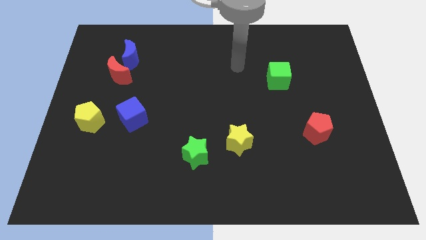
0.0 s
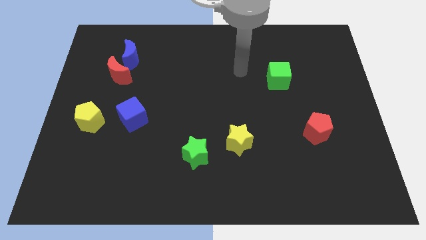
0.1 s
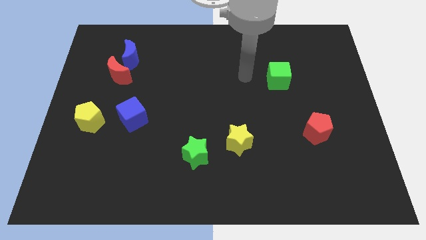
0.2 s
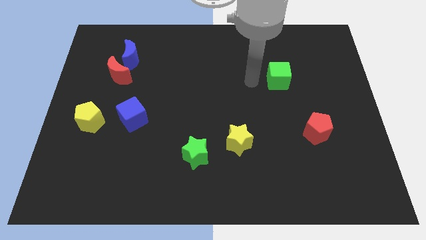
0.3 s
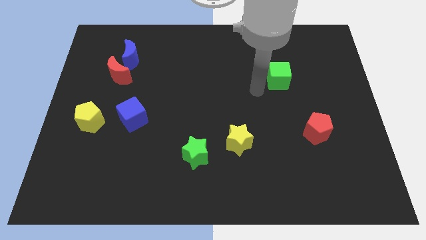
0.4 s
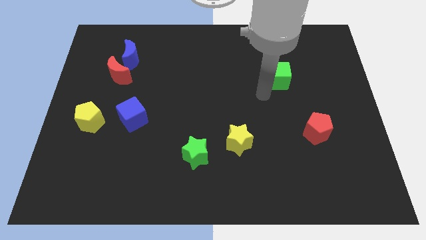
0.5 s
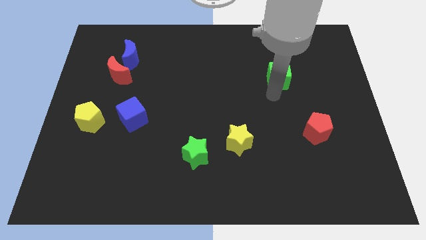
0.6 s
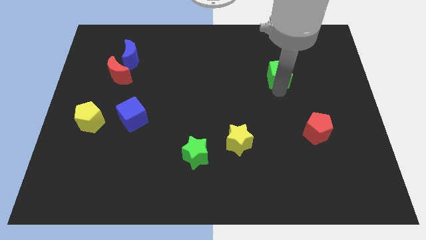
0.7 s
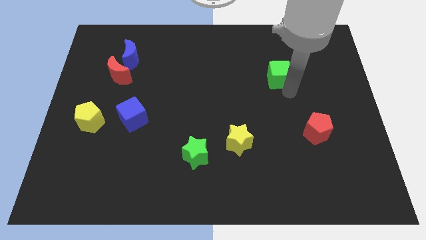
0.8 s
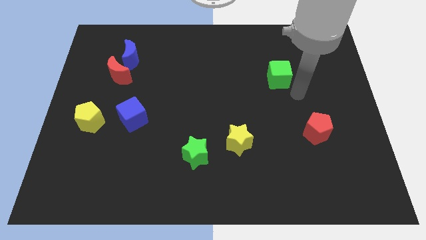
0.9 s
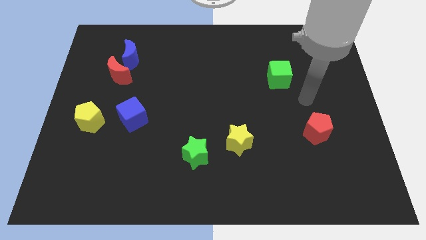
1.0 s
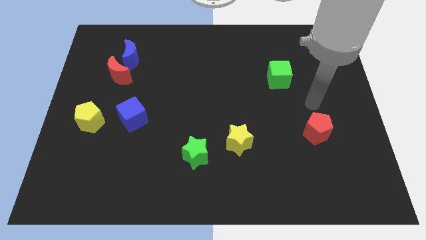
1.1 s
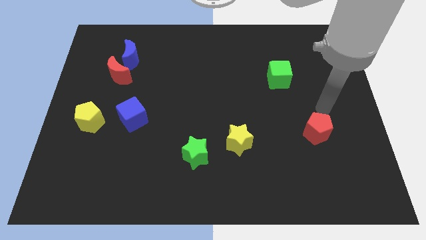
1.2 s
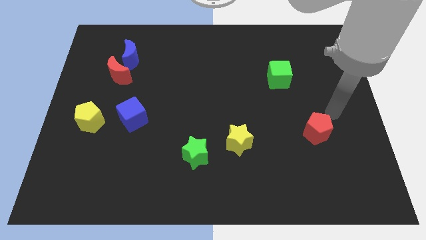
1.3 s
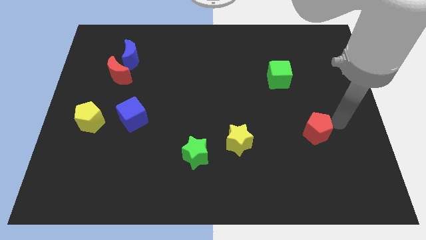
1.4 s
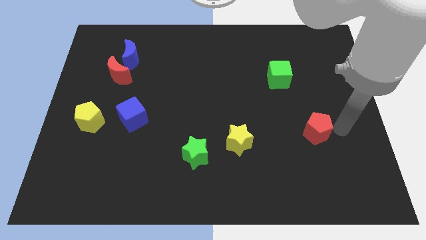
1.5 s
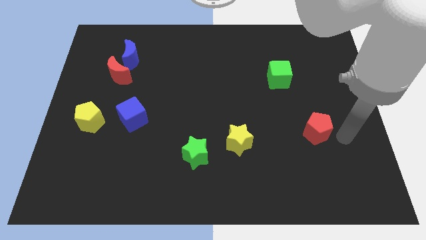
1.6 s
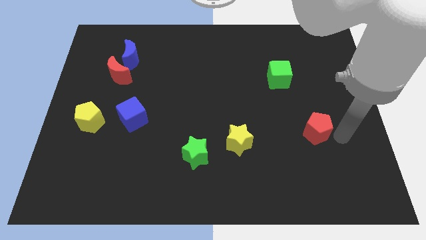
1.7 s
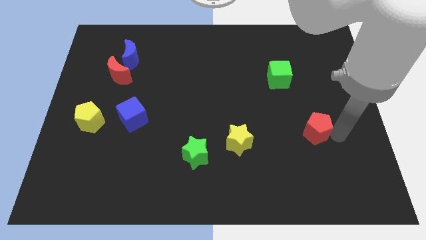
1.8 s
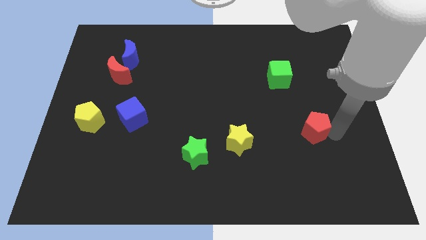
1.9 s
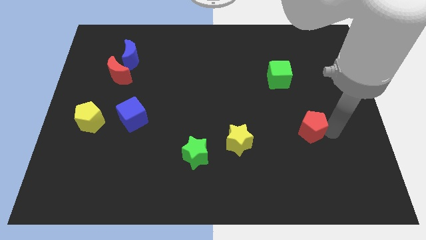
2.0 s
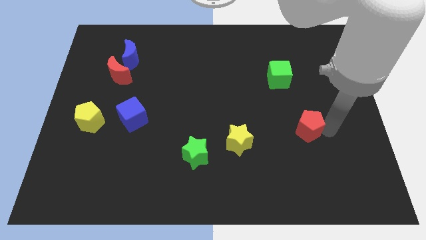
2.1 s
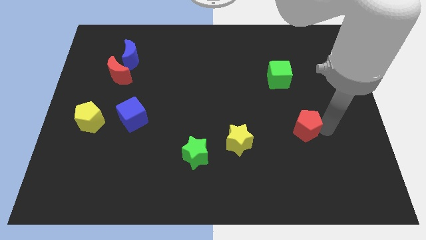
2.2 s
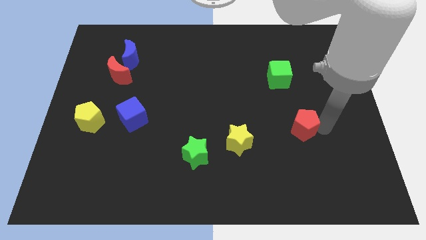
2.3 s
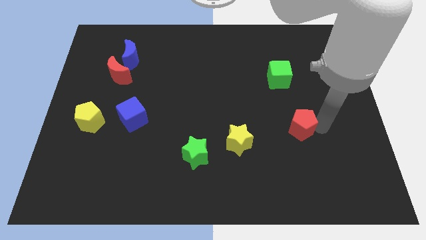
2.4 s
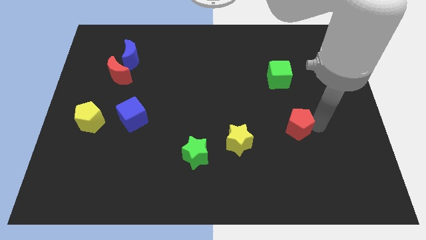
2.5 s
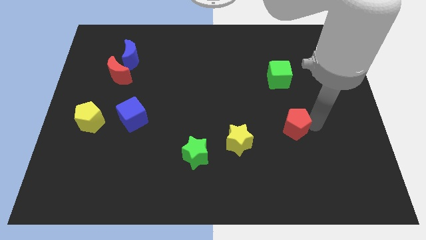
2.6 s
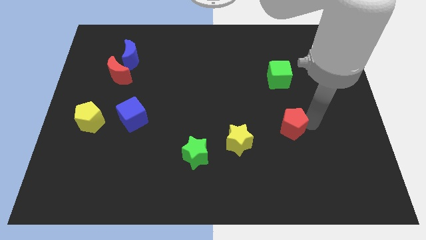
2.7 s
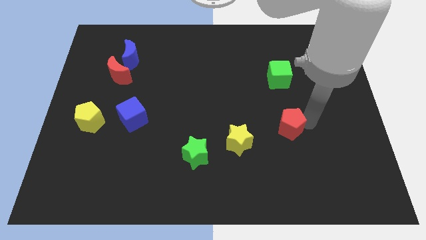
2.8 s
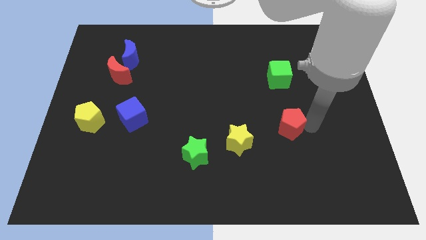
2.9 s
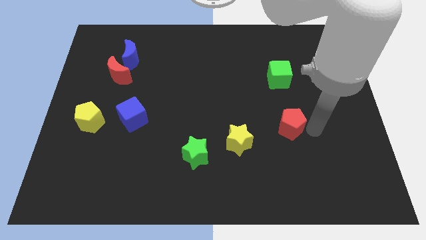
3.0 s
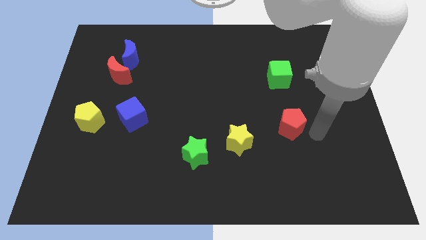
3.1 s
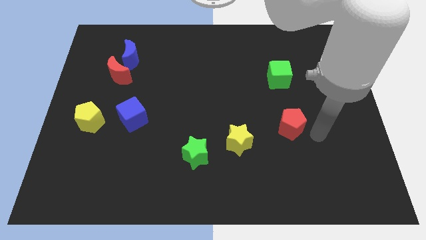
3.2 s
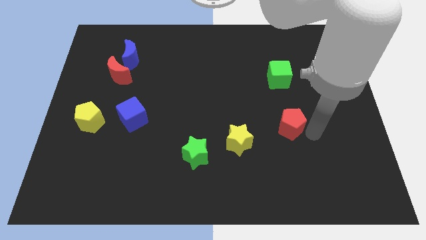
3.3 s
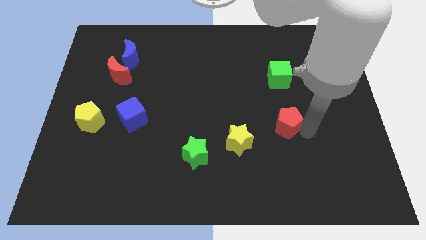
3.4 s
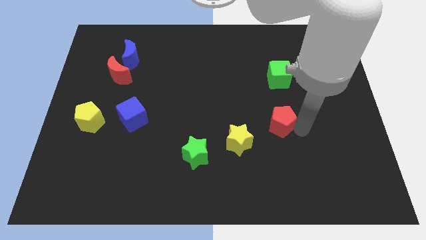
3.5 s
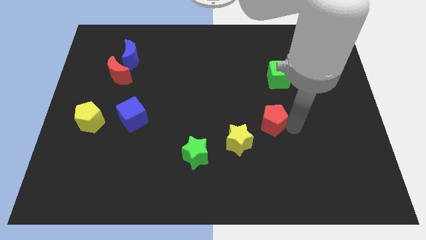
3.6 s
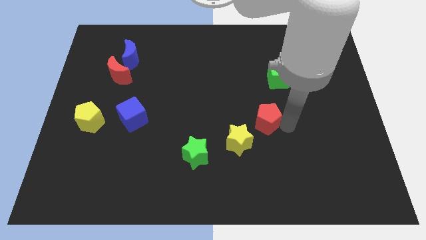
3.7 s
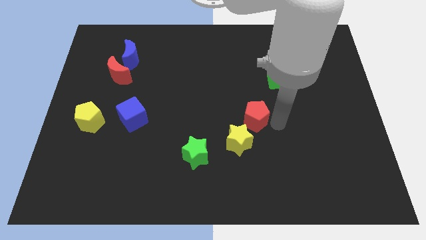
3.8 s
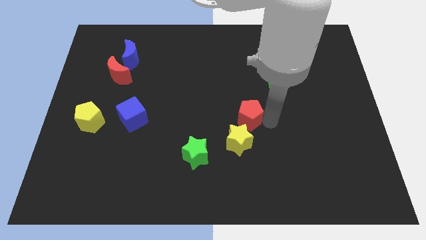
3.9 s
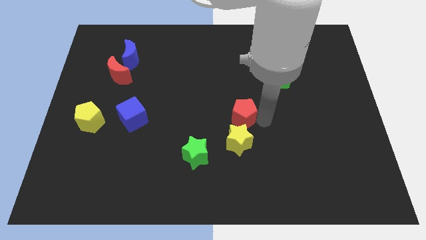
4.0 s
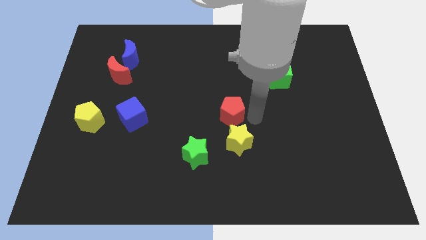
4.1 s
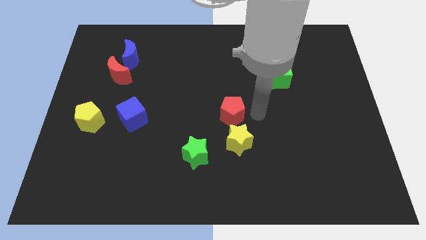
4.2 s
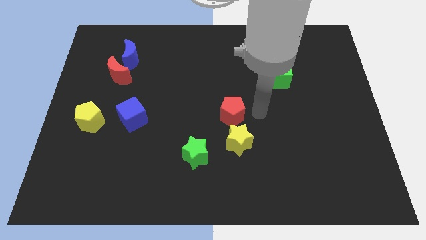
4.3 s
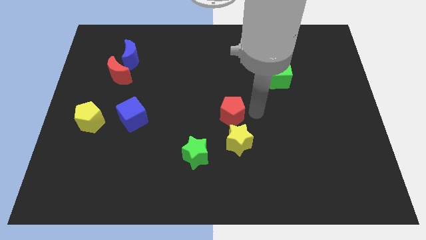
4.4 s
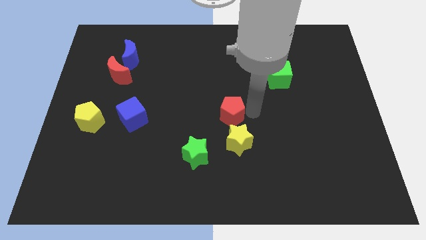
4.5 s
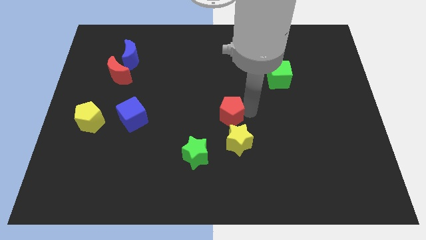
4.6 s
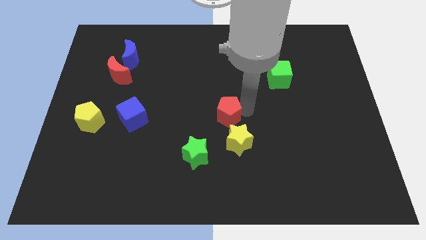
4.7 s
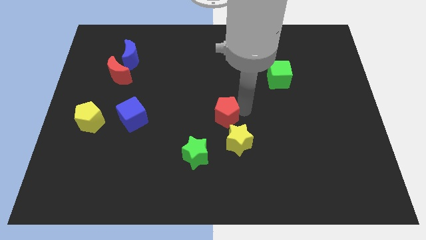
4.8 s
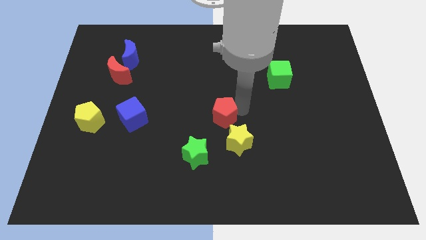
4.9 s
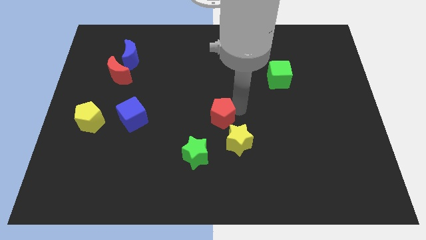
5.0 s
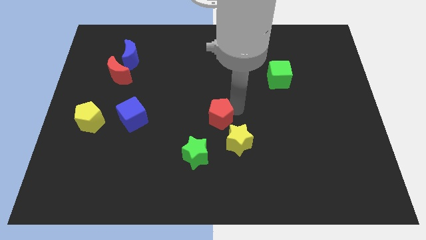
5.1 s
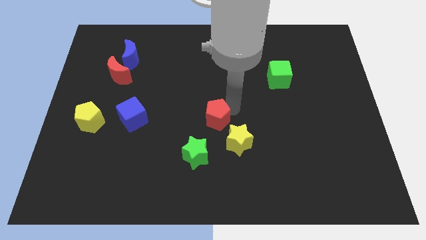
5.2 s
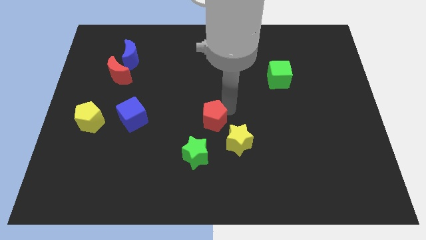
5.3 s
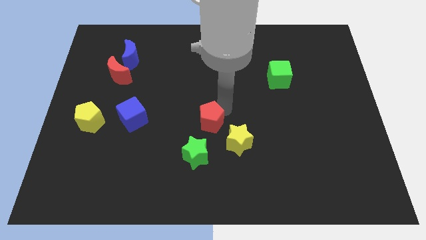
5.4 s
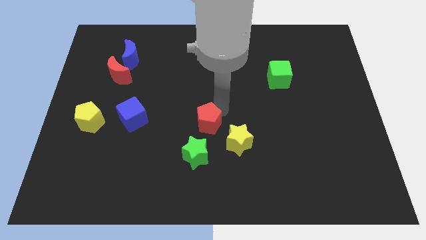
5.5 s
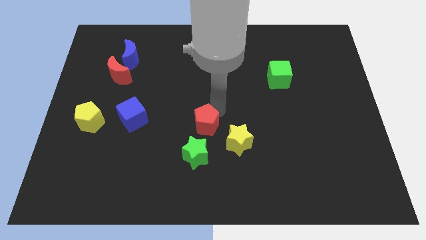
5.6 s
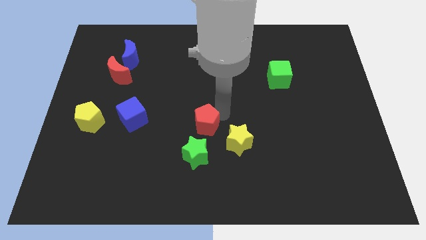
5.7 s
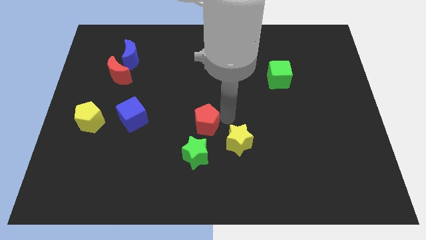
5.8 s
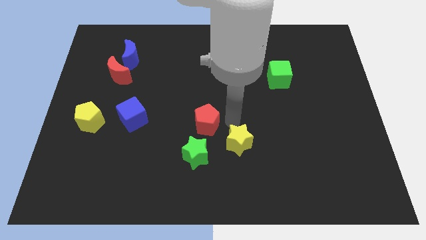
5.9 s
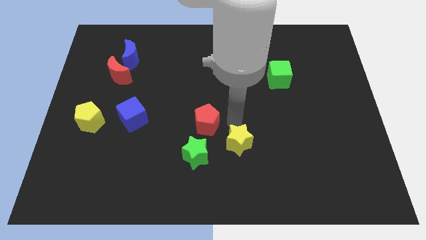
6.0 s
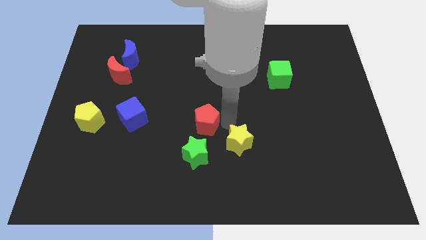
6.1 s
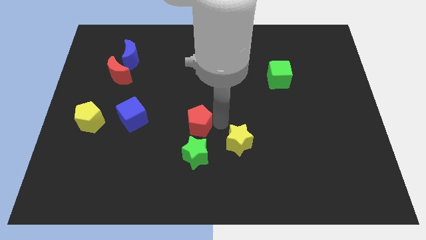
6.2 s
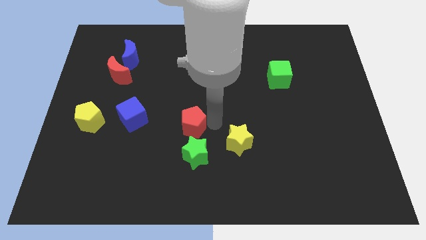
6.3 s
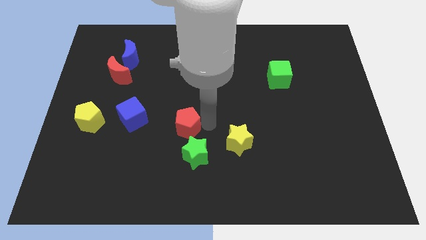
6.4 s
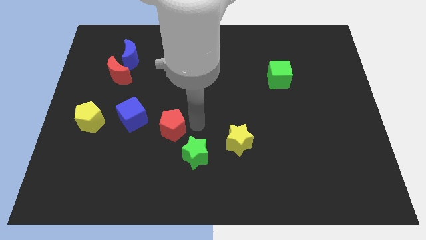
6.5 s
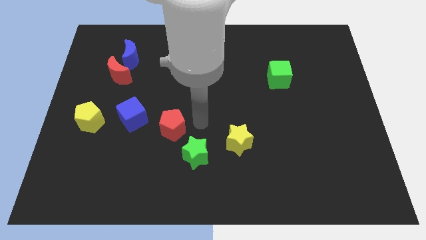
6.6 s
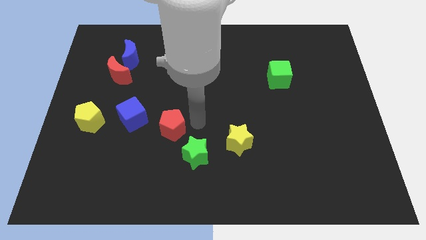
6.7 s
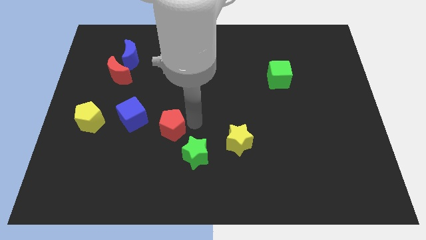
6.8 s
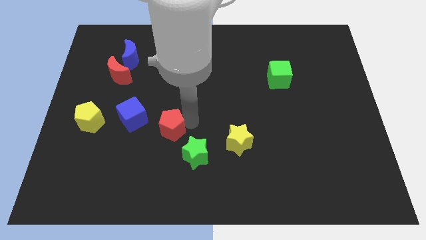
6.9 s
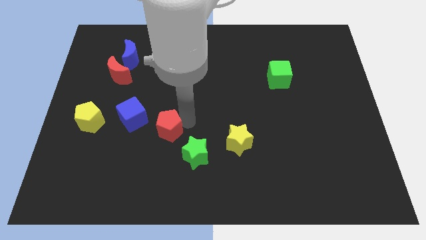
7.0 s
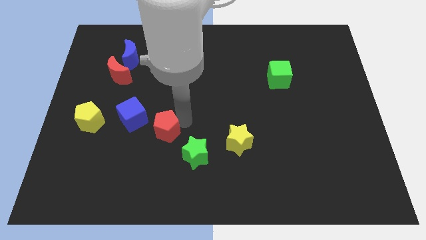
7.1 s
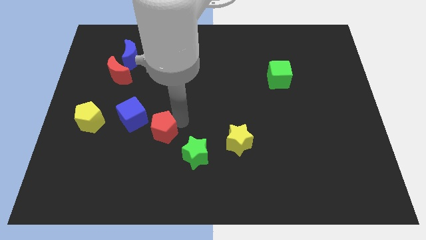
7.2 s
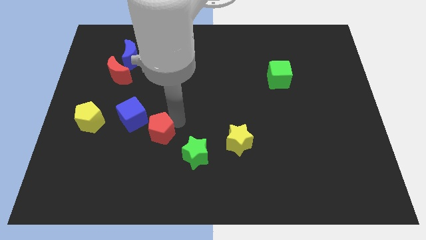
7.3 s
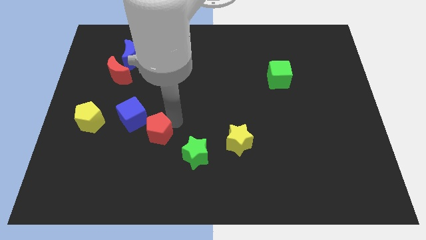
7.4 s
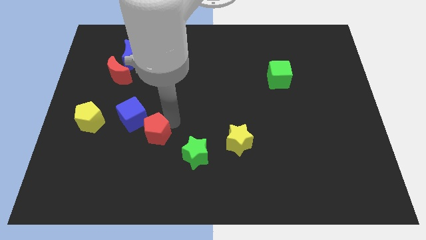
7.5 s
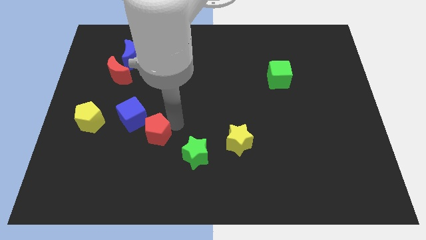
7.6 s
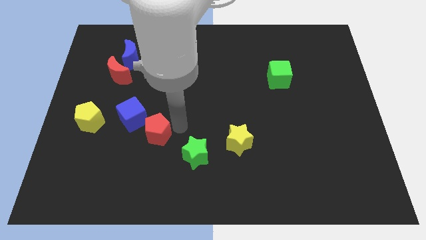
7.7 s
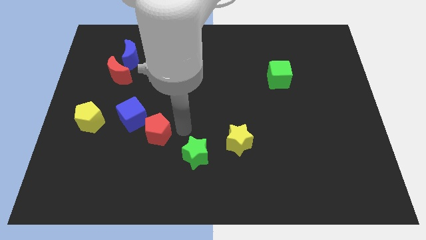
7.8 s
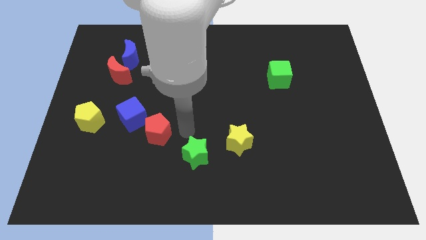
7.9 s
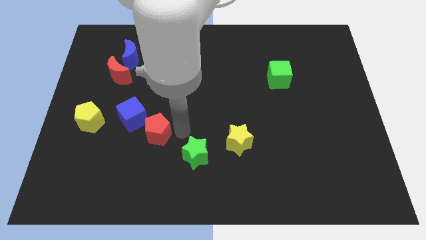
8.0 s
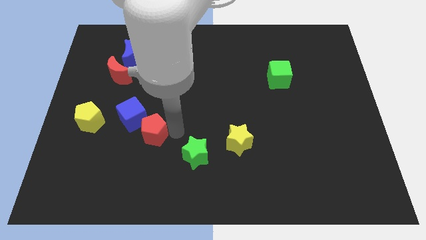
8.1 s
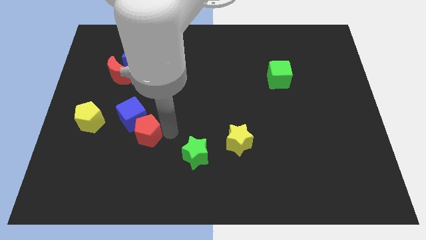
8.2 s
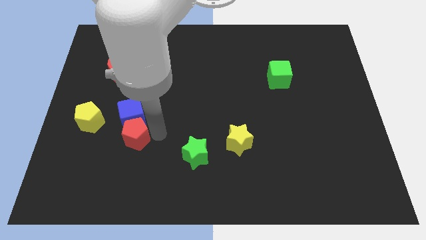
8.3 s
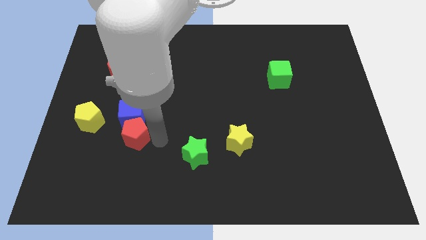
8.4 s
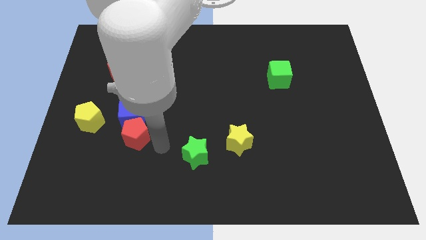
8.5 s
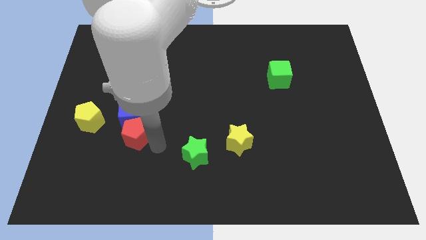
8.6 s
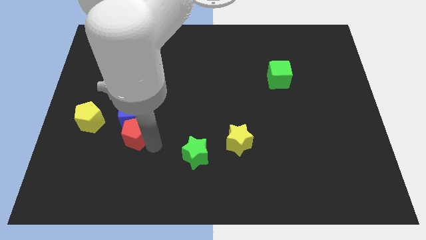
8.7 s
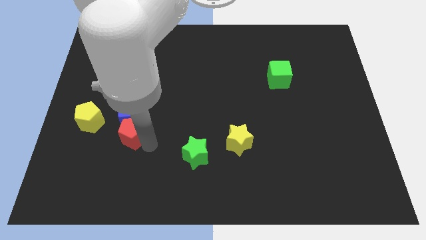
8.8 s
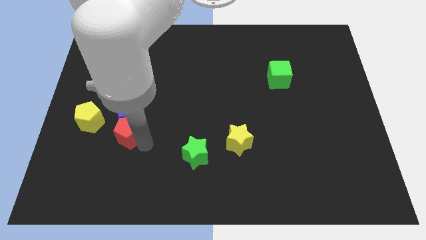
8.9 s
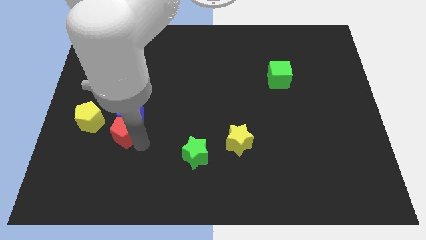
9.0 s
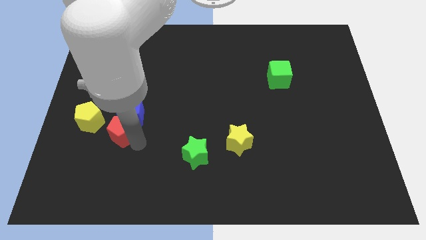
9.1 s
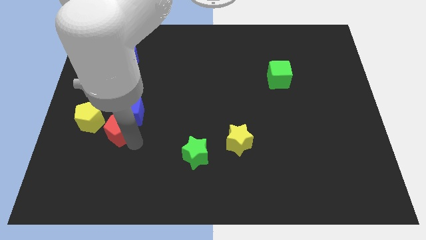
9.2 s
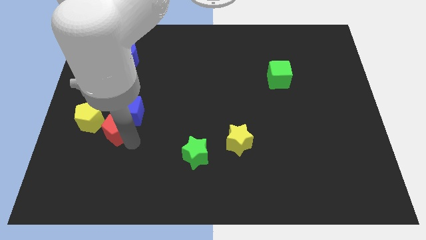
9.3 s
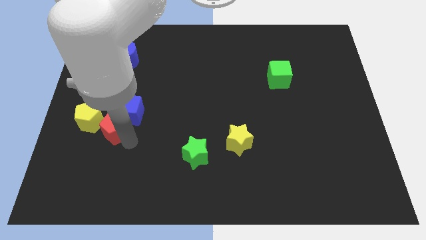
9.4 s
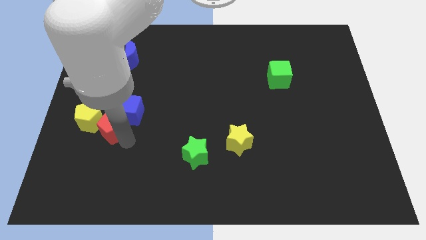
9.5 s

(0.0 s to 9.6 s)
move the red pentagon to the yellow pentagon
